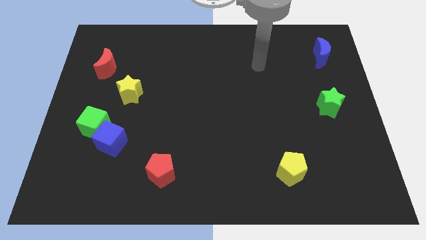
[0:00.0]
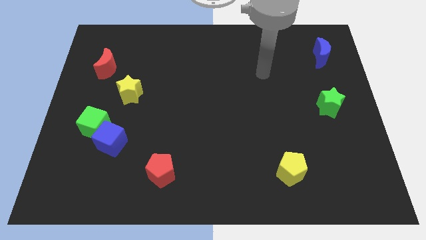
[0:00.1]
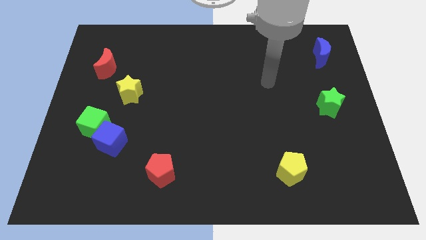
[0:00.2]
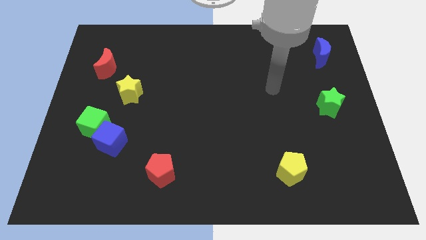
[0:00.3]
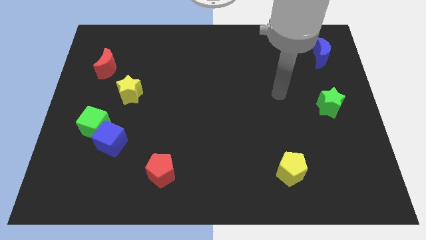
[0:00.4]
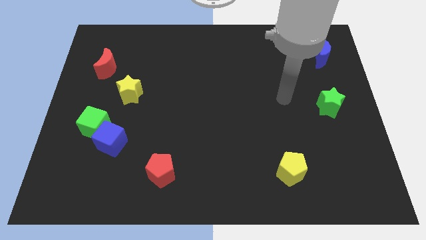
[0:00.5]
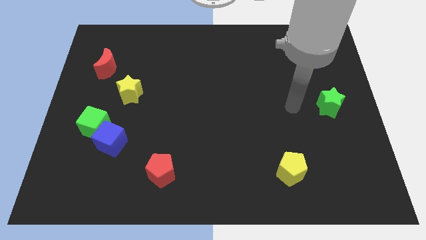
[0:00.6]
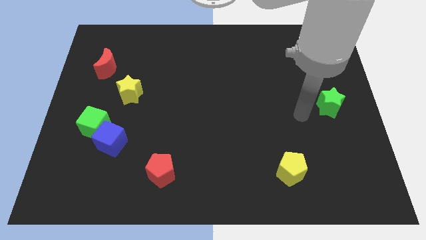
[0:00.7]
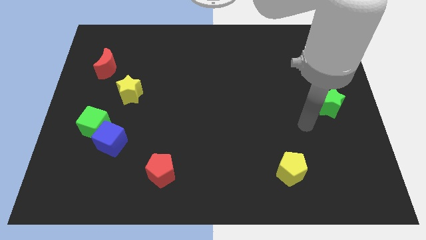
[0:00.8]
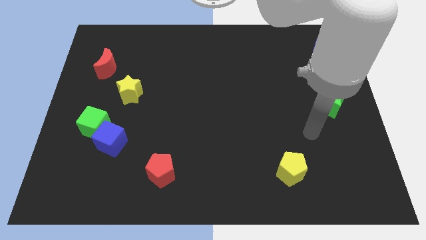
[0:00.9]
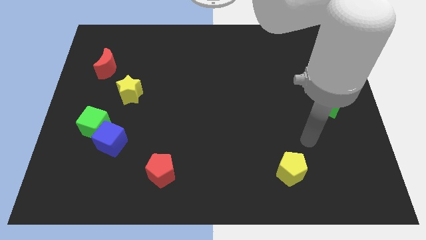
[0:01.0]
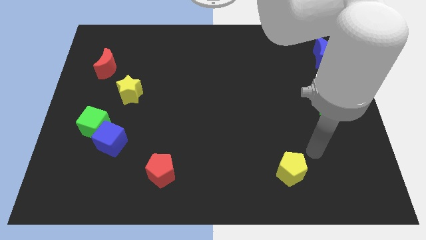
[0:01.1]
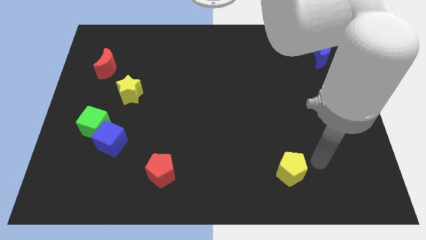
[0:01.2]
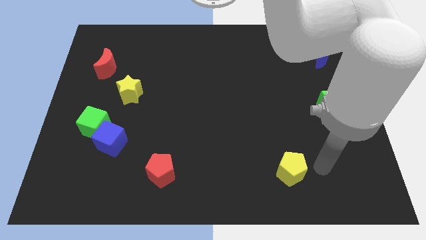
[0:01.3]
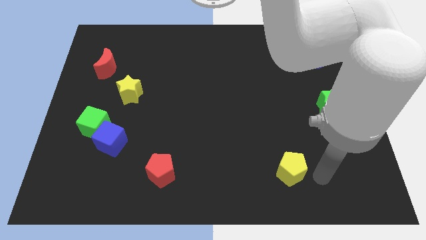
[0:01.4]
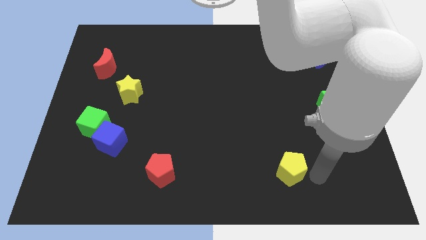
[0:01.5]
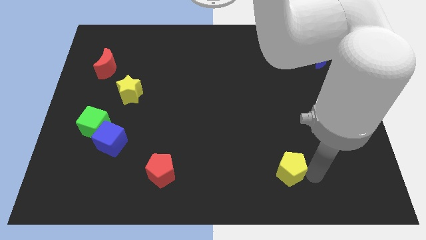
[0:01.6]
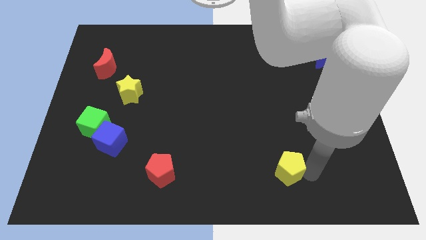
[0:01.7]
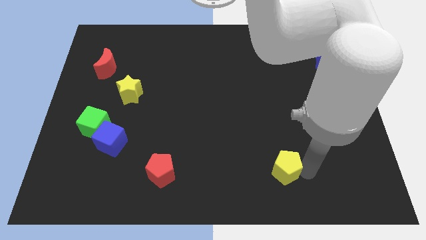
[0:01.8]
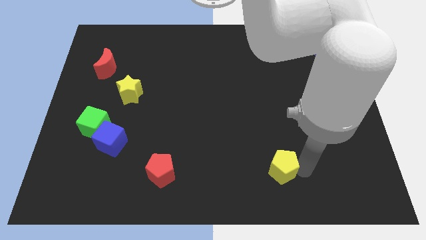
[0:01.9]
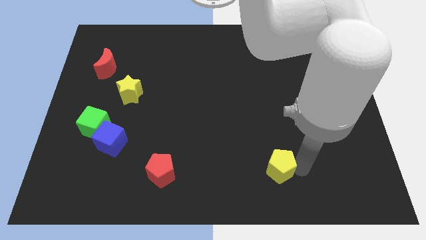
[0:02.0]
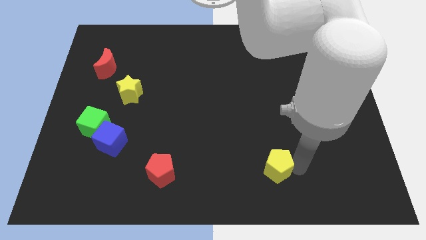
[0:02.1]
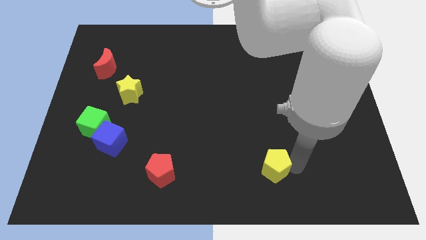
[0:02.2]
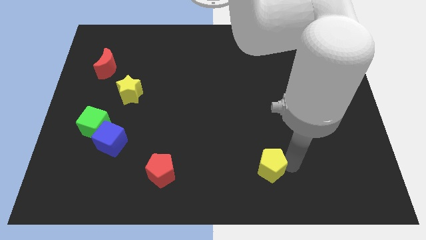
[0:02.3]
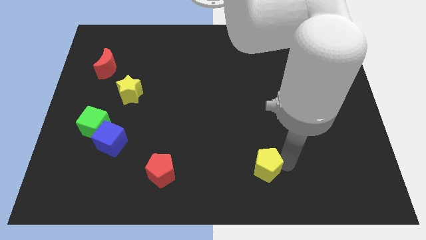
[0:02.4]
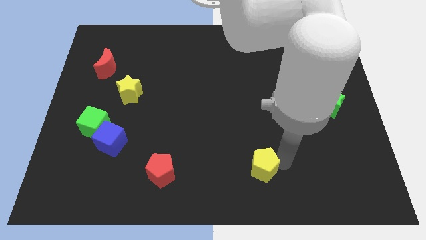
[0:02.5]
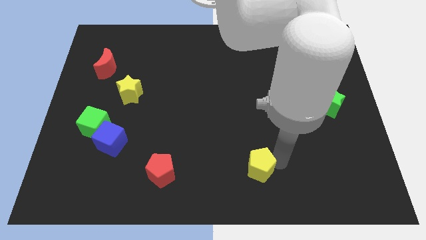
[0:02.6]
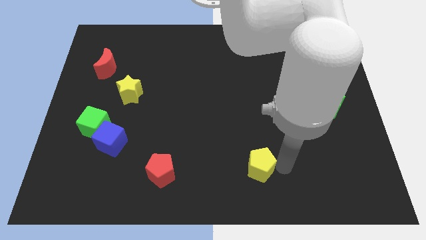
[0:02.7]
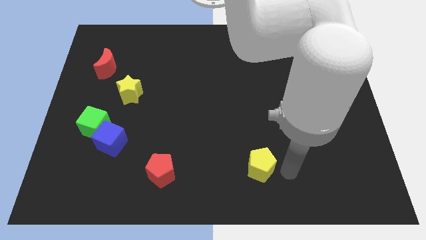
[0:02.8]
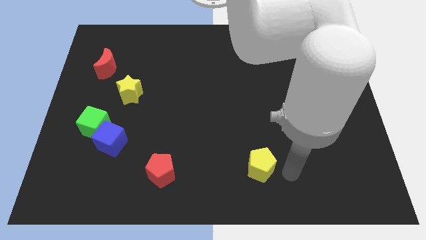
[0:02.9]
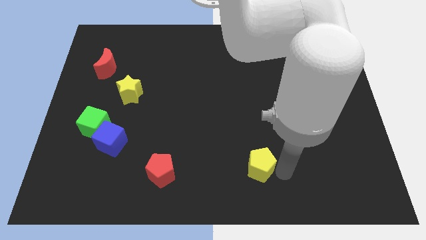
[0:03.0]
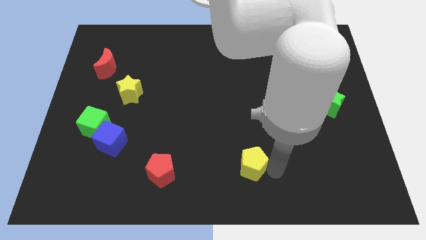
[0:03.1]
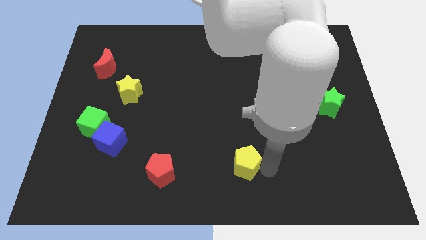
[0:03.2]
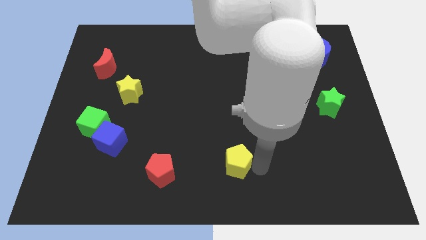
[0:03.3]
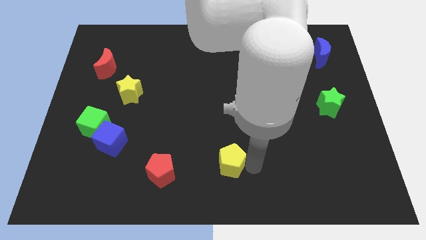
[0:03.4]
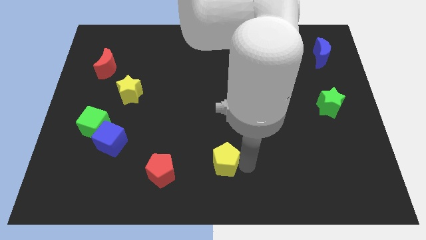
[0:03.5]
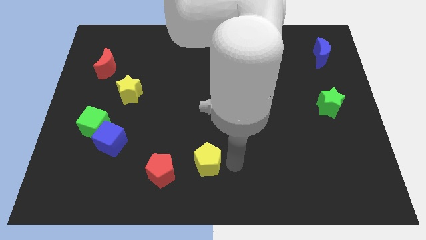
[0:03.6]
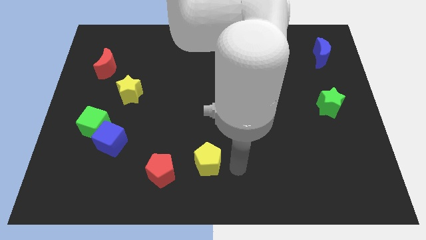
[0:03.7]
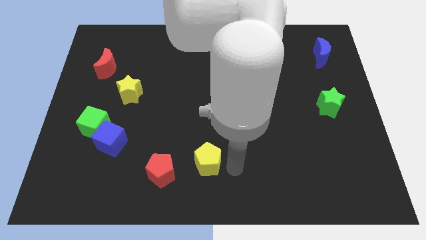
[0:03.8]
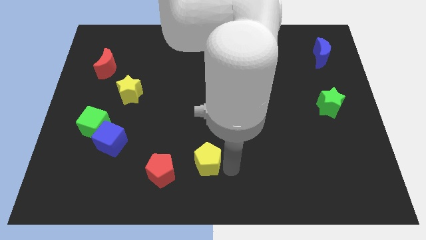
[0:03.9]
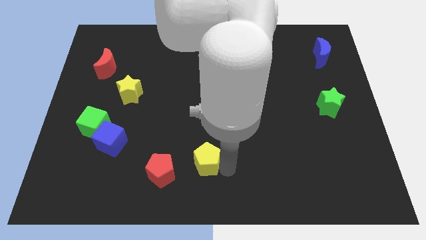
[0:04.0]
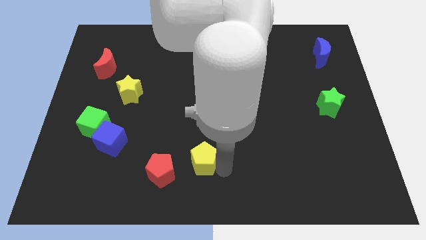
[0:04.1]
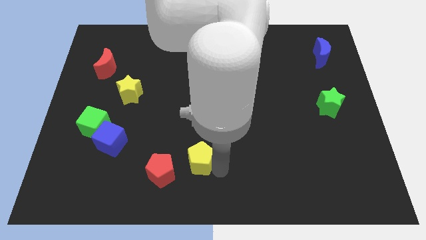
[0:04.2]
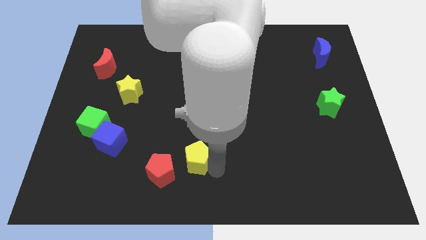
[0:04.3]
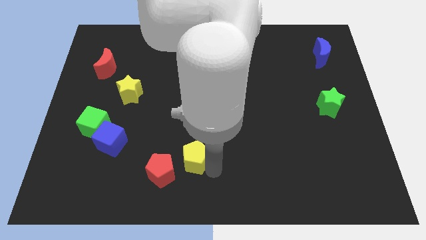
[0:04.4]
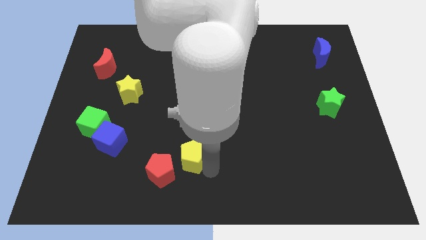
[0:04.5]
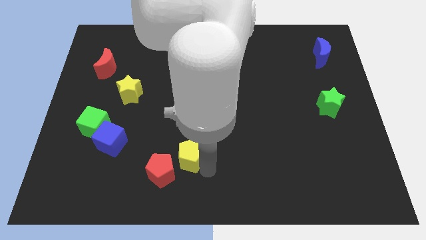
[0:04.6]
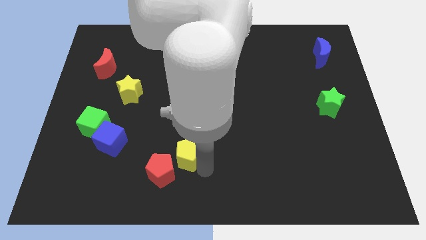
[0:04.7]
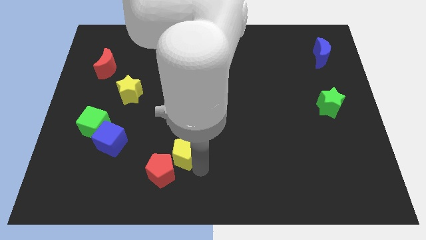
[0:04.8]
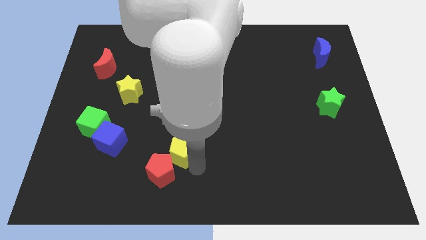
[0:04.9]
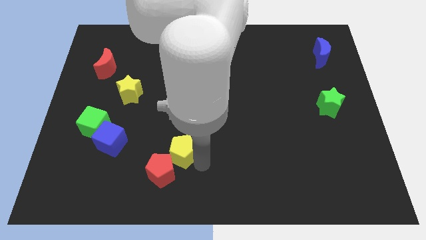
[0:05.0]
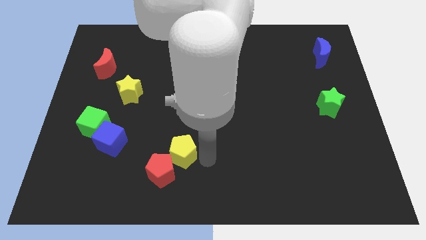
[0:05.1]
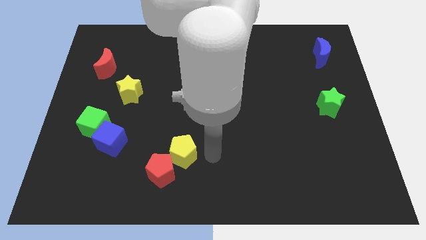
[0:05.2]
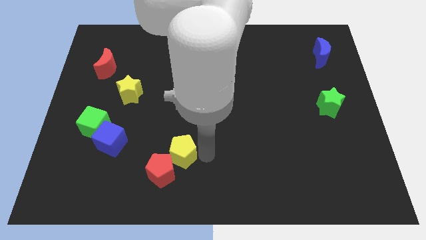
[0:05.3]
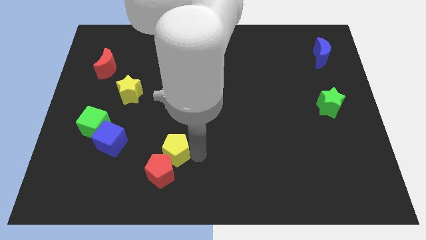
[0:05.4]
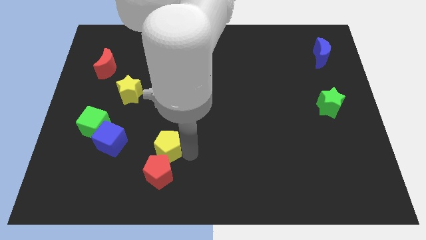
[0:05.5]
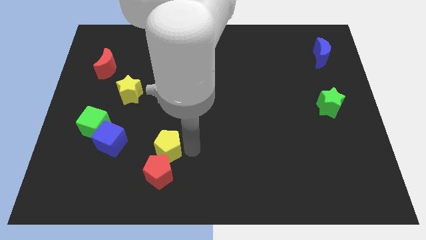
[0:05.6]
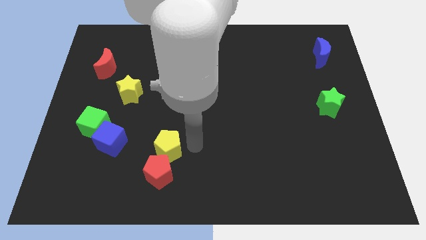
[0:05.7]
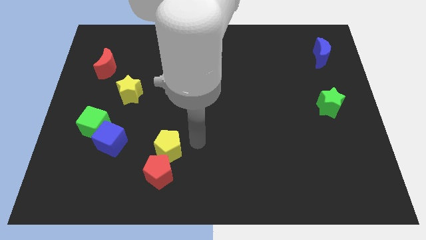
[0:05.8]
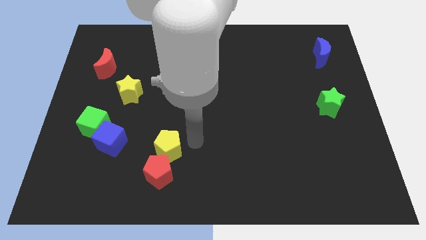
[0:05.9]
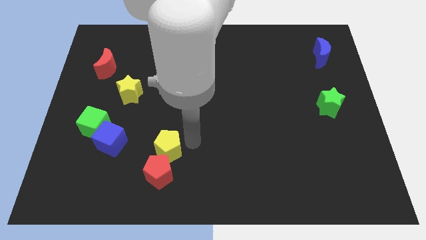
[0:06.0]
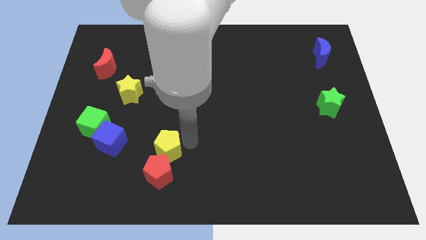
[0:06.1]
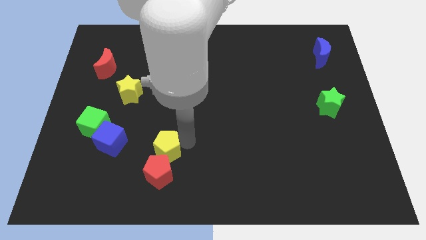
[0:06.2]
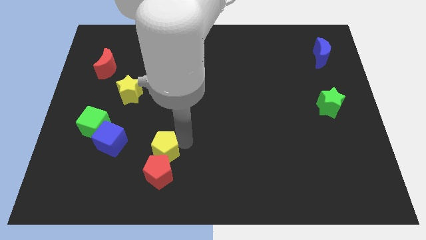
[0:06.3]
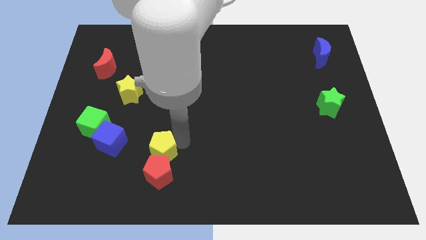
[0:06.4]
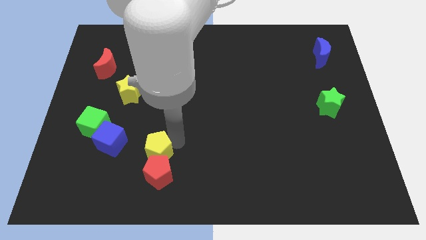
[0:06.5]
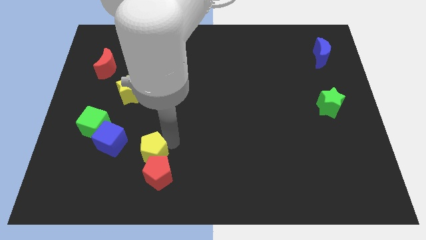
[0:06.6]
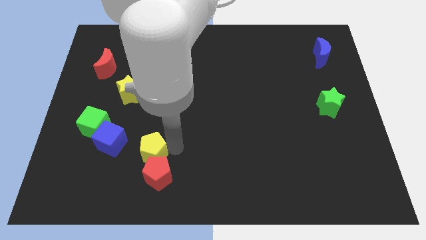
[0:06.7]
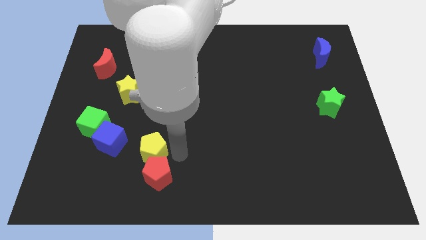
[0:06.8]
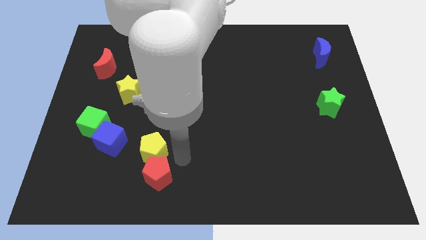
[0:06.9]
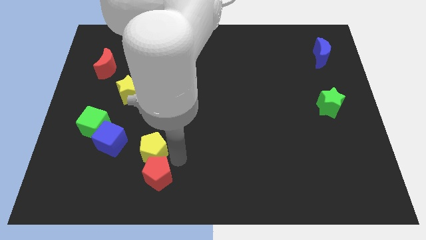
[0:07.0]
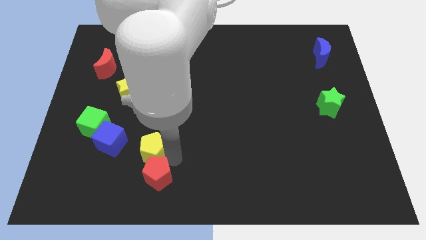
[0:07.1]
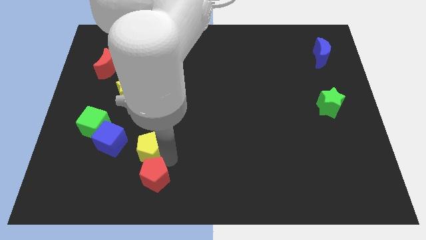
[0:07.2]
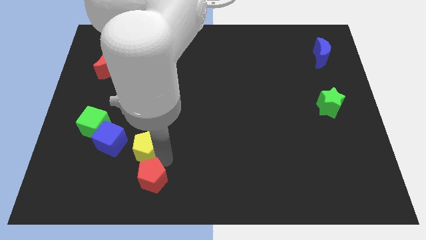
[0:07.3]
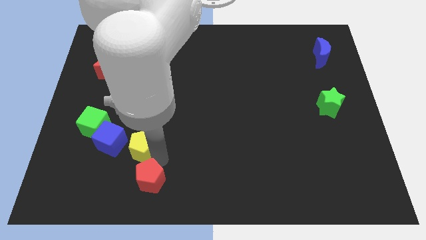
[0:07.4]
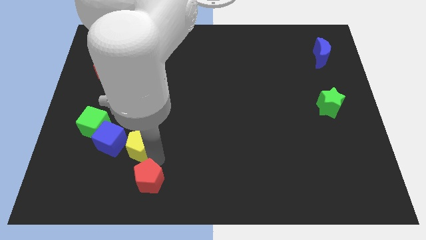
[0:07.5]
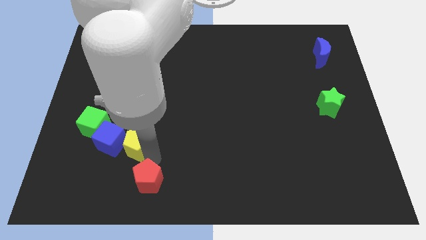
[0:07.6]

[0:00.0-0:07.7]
put the yellow pentagon close to the blue cube
